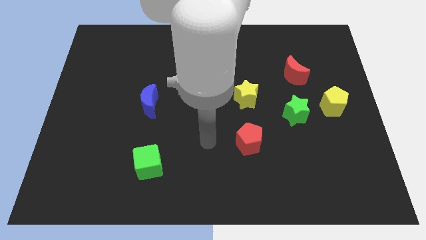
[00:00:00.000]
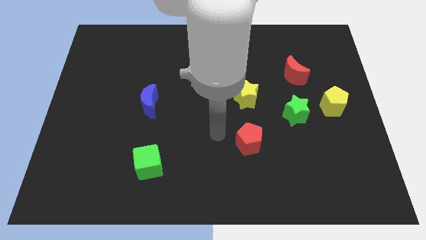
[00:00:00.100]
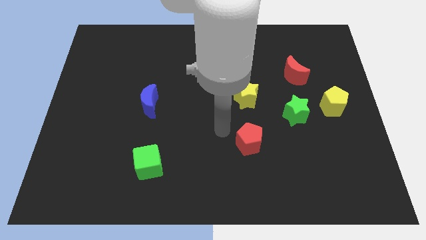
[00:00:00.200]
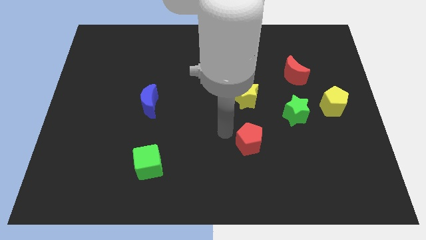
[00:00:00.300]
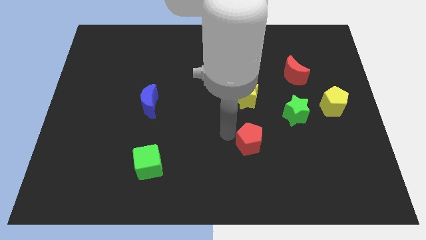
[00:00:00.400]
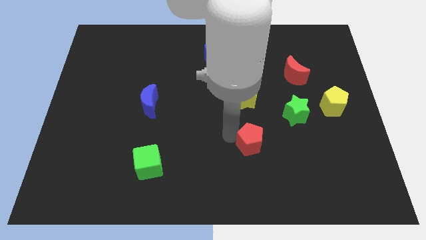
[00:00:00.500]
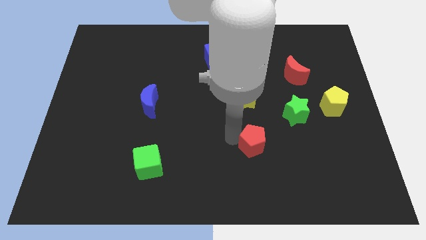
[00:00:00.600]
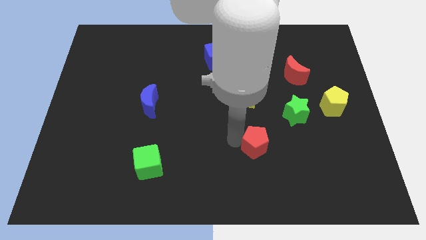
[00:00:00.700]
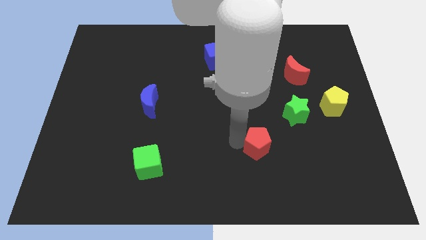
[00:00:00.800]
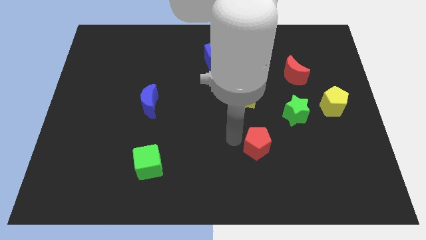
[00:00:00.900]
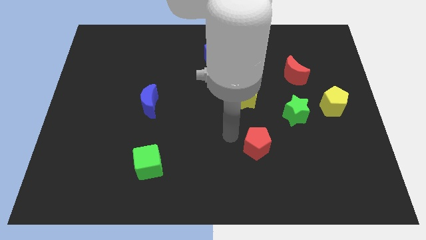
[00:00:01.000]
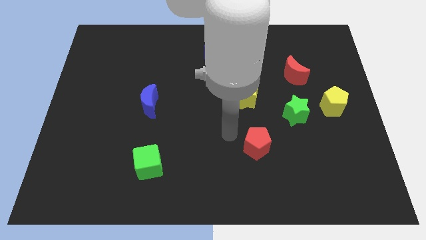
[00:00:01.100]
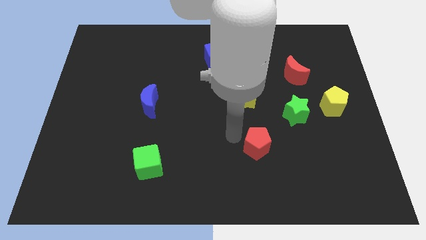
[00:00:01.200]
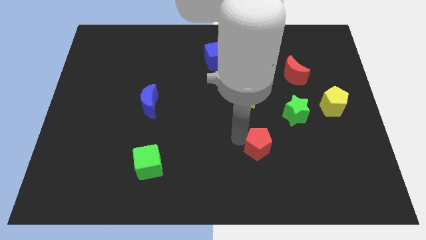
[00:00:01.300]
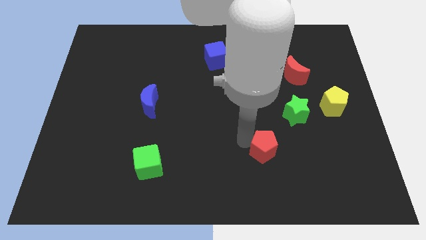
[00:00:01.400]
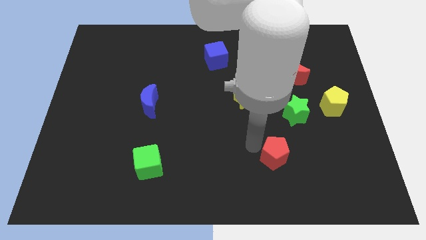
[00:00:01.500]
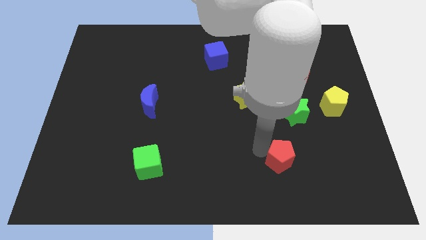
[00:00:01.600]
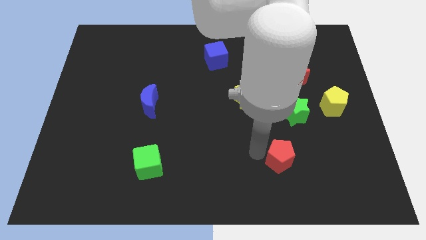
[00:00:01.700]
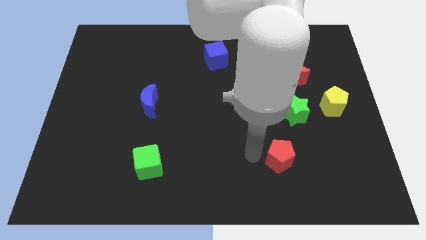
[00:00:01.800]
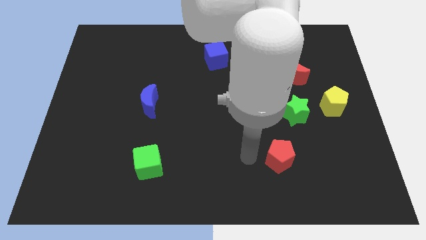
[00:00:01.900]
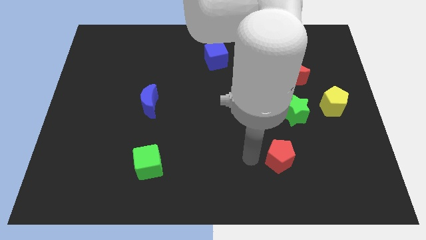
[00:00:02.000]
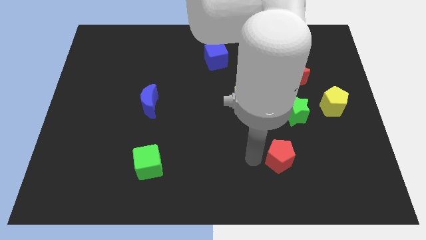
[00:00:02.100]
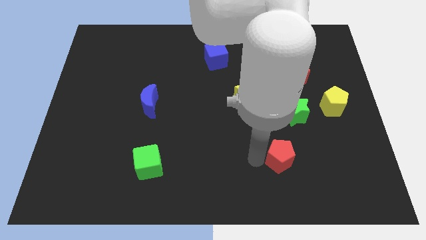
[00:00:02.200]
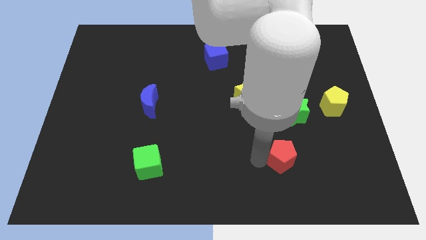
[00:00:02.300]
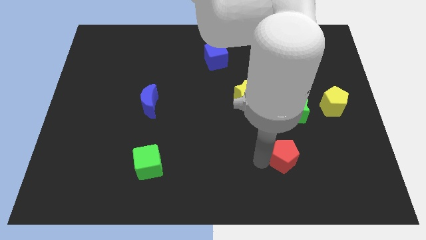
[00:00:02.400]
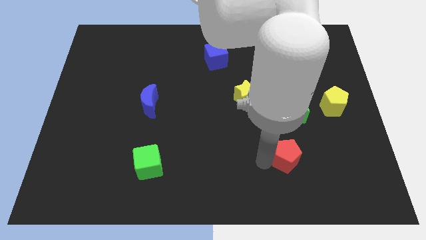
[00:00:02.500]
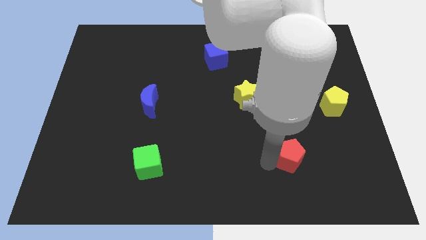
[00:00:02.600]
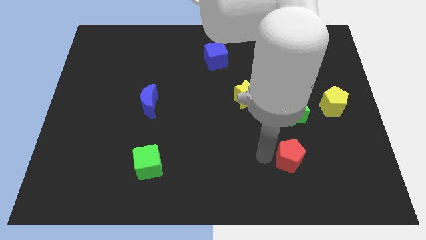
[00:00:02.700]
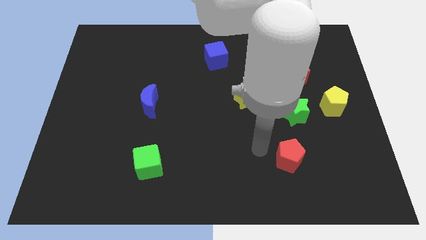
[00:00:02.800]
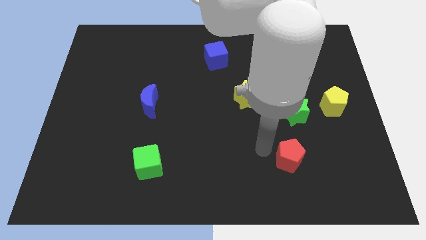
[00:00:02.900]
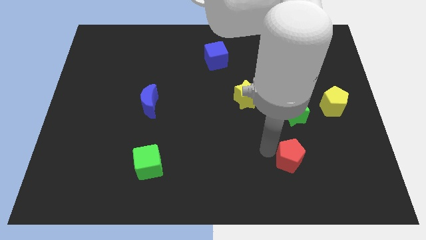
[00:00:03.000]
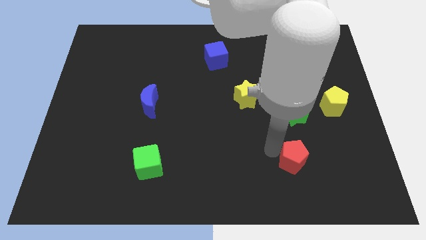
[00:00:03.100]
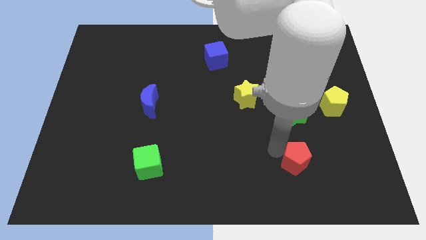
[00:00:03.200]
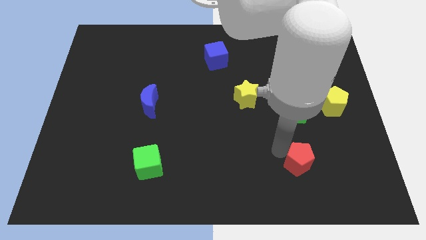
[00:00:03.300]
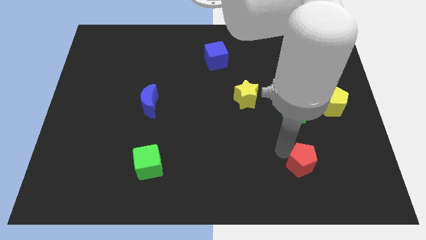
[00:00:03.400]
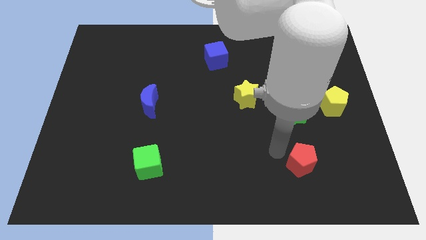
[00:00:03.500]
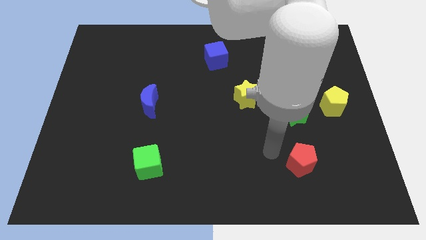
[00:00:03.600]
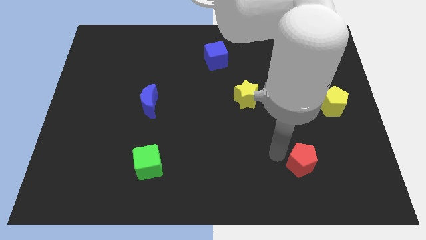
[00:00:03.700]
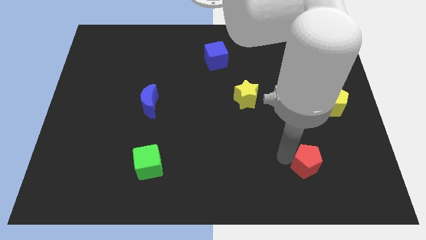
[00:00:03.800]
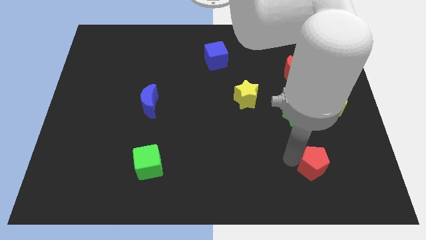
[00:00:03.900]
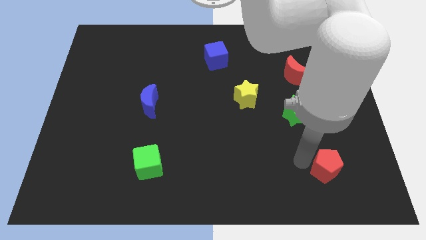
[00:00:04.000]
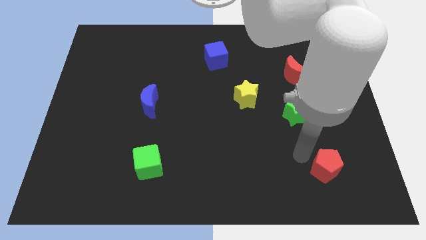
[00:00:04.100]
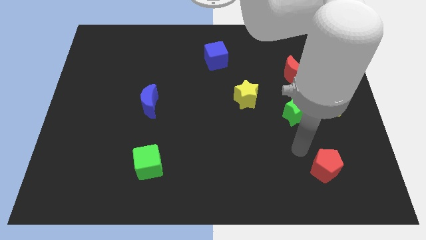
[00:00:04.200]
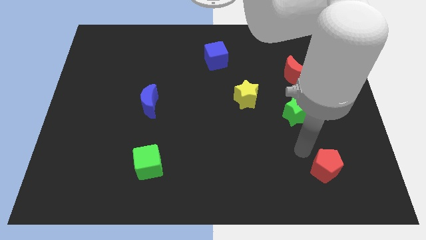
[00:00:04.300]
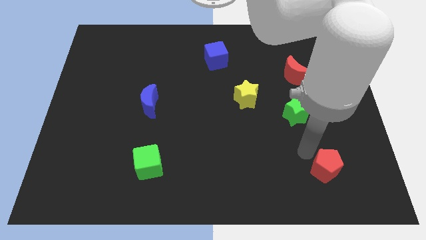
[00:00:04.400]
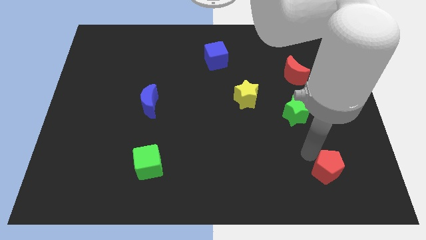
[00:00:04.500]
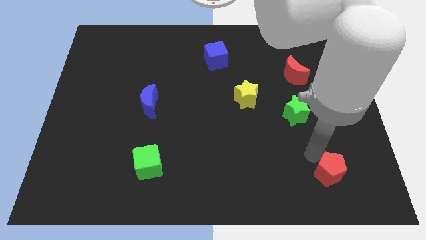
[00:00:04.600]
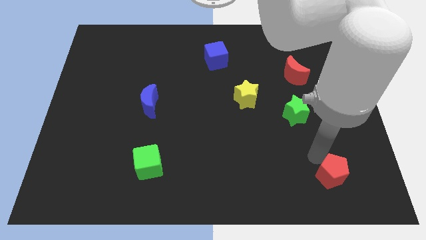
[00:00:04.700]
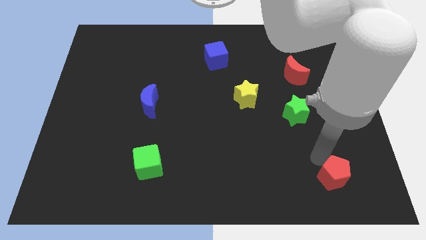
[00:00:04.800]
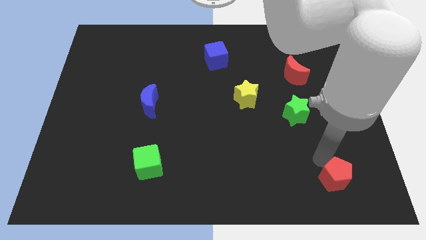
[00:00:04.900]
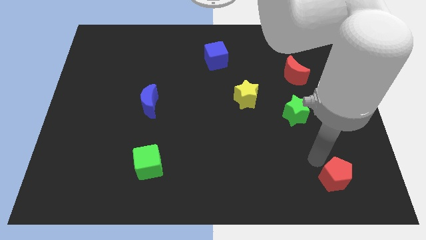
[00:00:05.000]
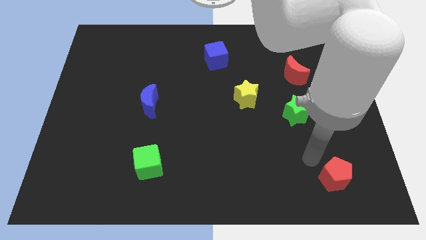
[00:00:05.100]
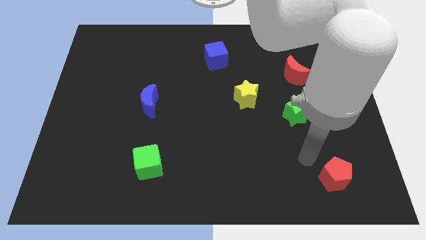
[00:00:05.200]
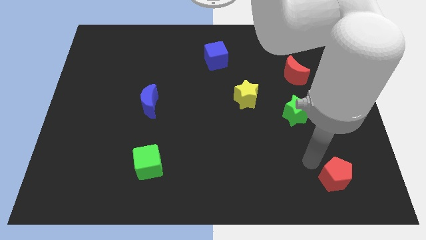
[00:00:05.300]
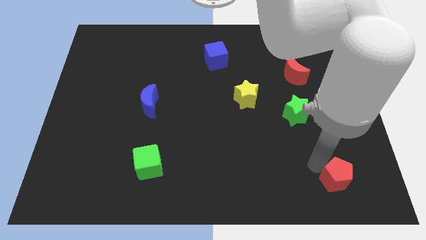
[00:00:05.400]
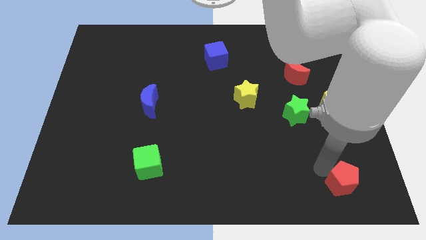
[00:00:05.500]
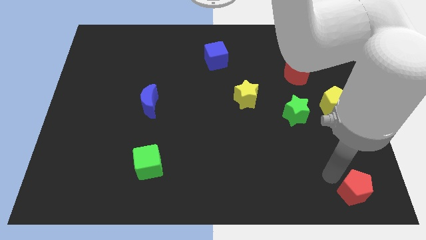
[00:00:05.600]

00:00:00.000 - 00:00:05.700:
push the red pentagon to the bottom right
